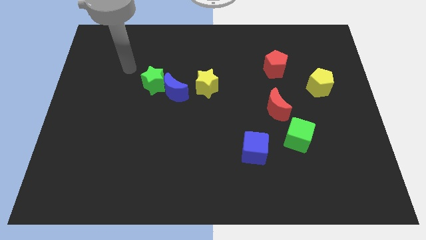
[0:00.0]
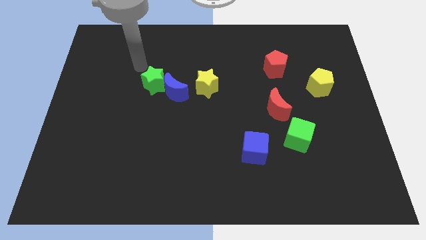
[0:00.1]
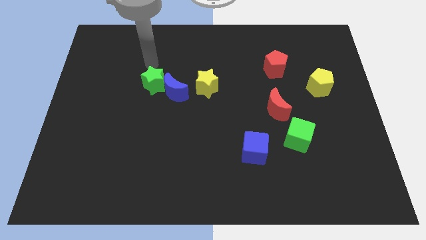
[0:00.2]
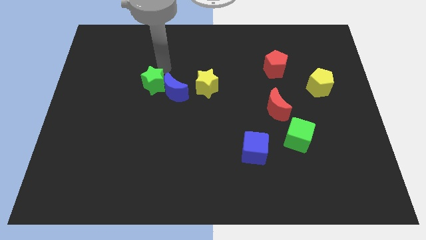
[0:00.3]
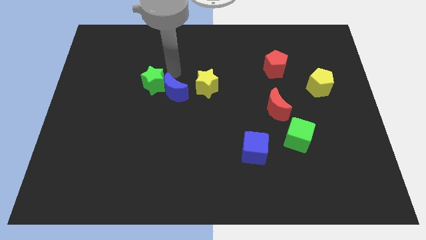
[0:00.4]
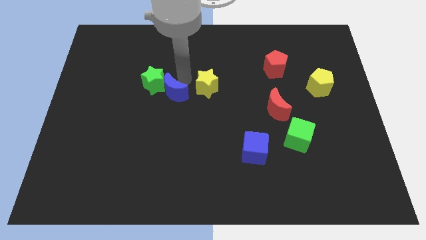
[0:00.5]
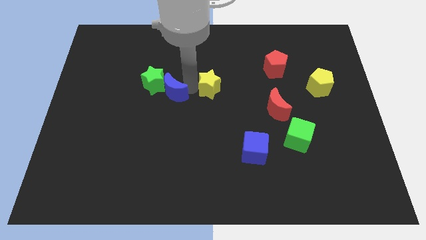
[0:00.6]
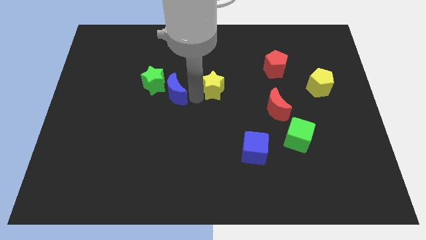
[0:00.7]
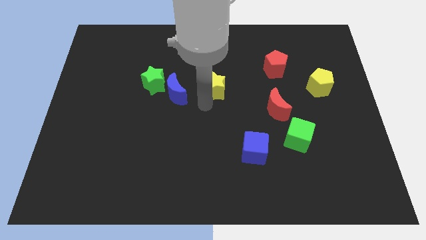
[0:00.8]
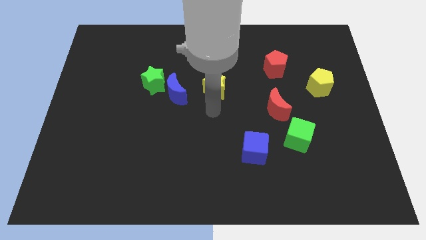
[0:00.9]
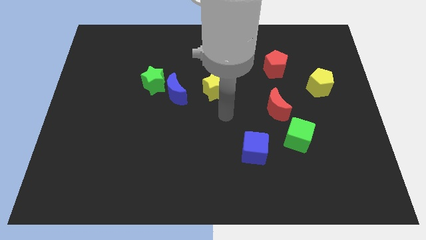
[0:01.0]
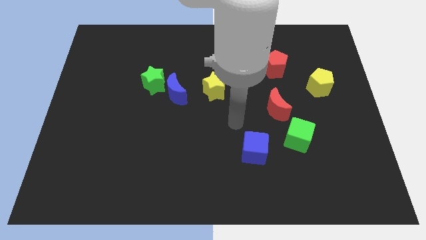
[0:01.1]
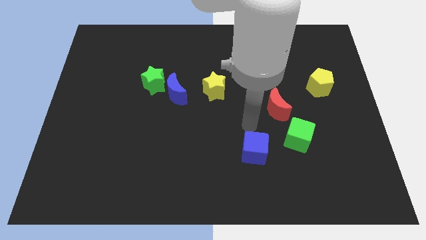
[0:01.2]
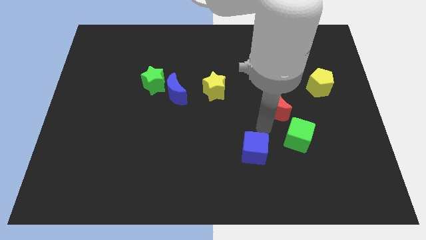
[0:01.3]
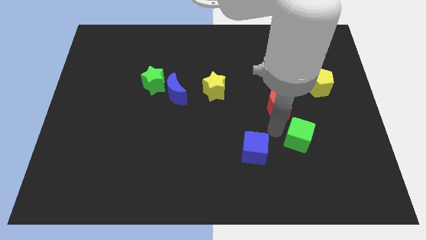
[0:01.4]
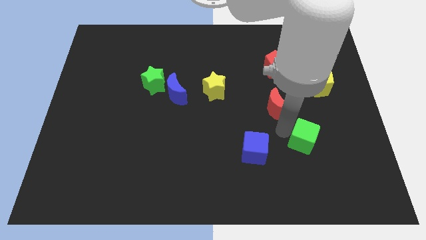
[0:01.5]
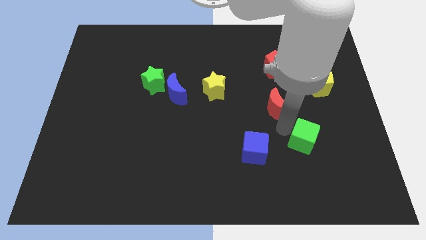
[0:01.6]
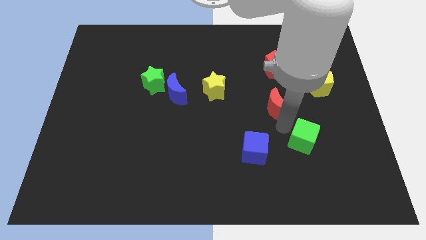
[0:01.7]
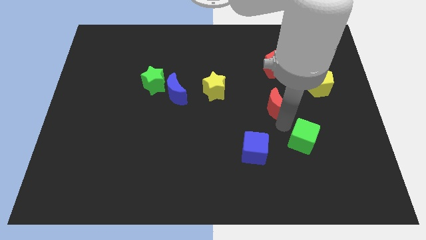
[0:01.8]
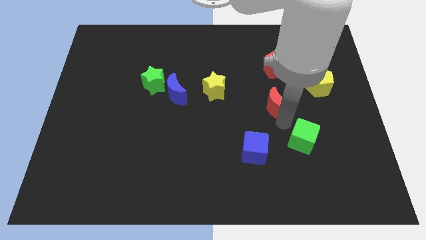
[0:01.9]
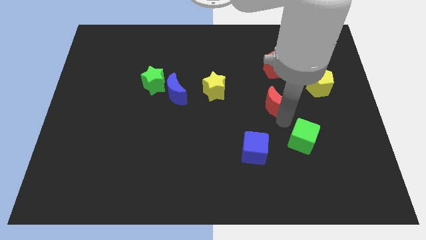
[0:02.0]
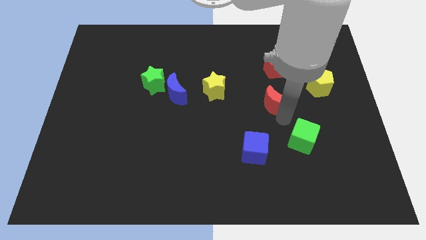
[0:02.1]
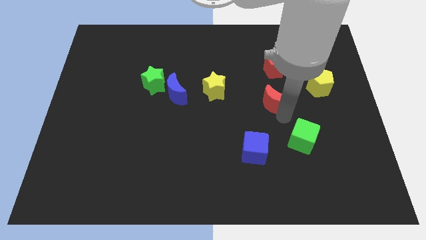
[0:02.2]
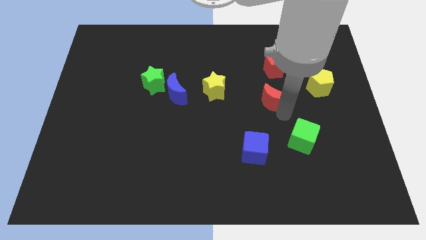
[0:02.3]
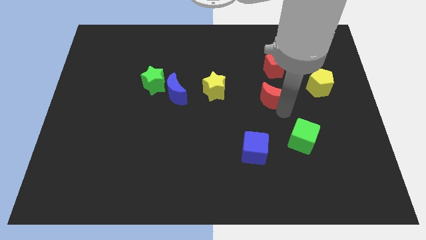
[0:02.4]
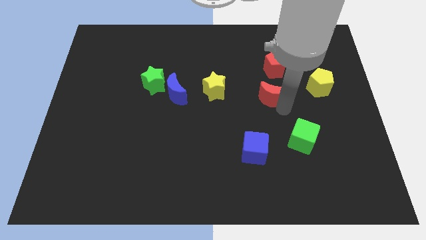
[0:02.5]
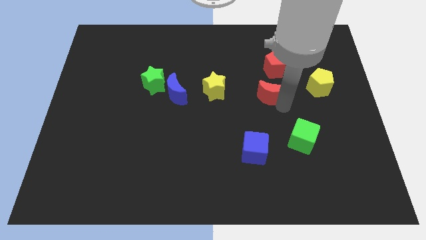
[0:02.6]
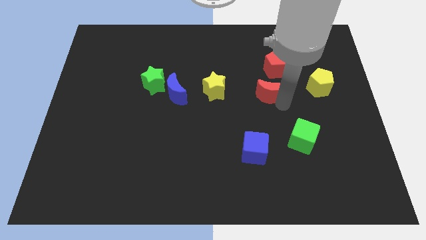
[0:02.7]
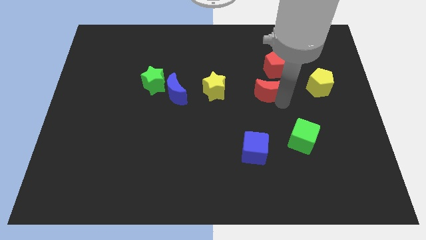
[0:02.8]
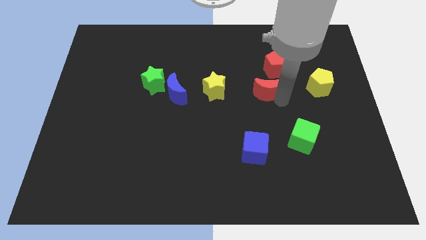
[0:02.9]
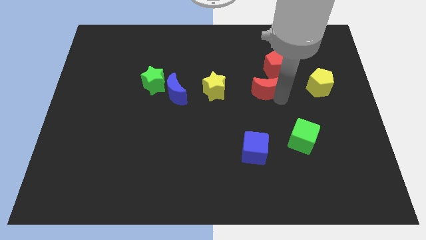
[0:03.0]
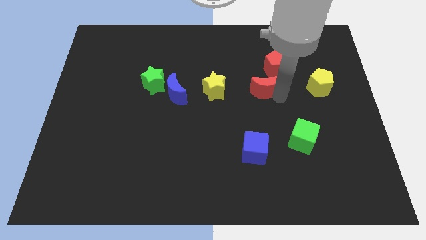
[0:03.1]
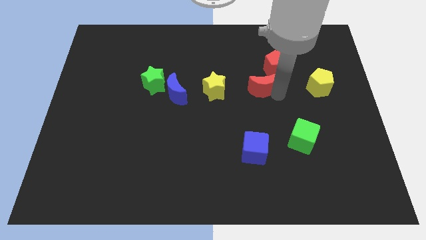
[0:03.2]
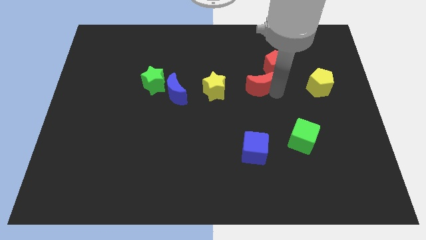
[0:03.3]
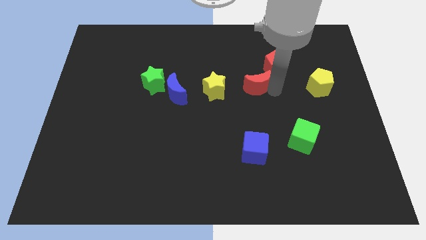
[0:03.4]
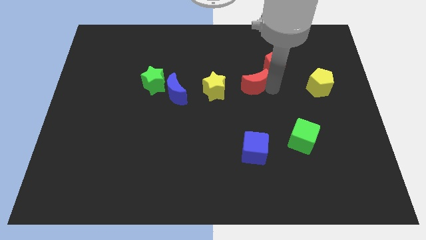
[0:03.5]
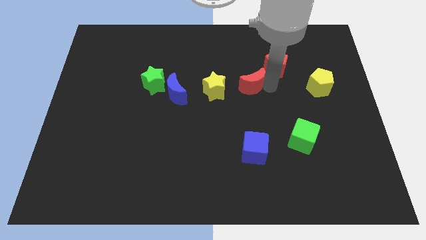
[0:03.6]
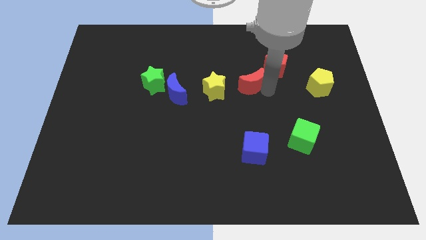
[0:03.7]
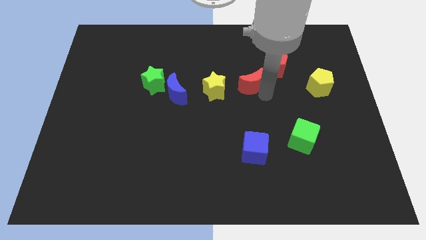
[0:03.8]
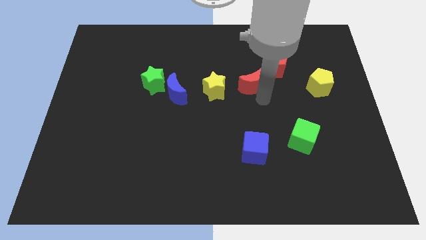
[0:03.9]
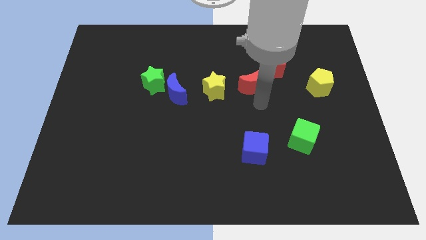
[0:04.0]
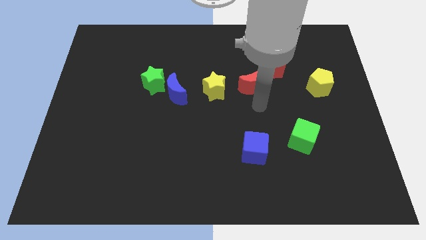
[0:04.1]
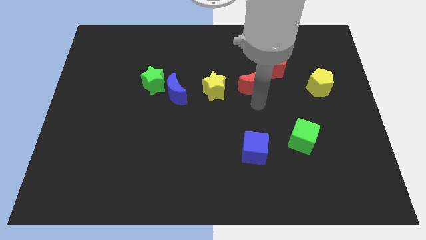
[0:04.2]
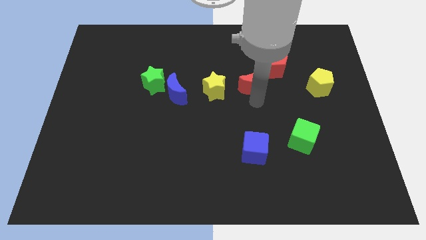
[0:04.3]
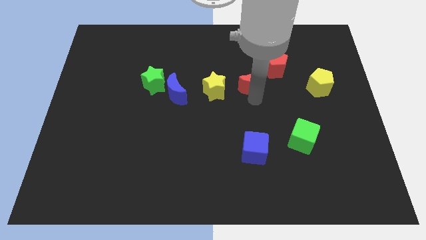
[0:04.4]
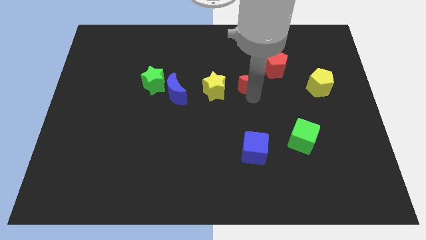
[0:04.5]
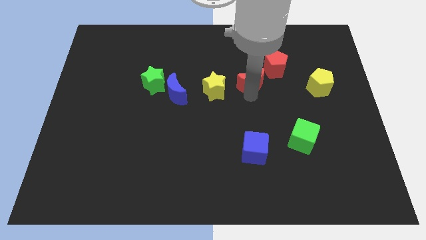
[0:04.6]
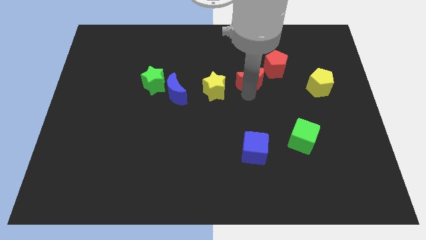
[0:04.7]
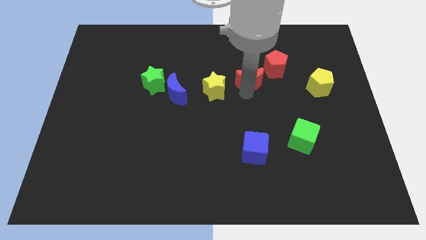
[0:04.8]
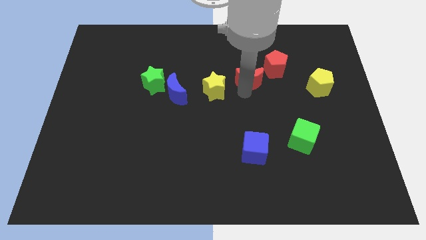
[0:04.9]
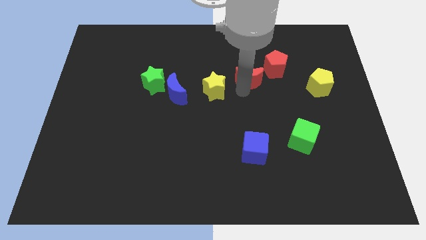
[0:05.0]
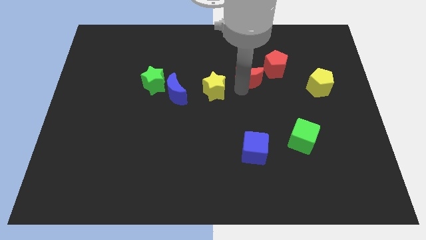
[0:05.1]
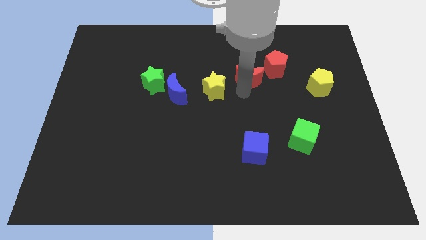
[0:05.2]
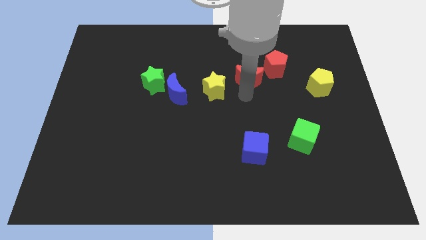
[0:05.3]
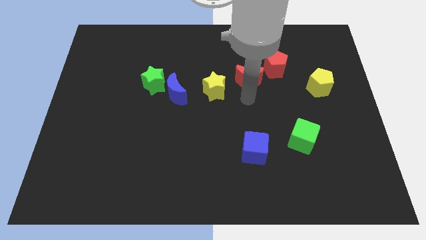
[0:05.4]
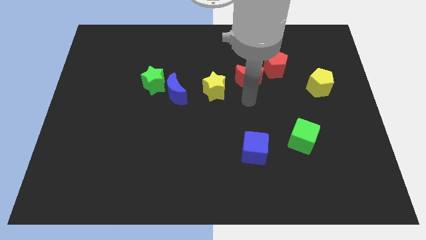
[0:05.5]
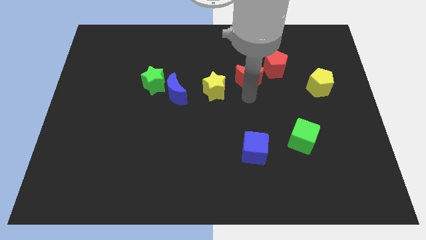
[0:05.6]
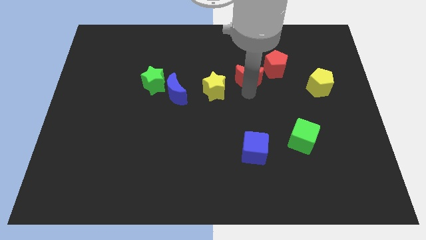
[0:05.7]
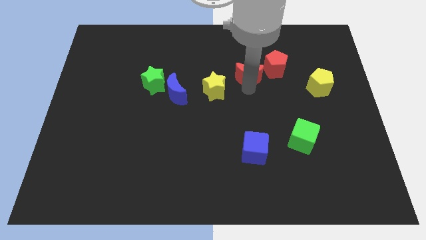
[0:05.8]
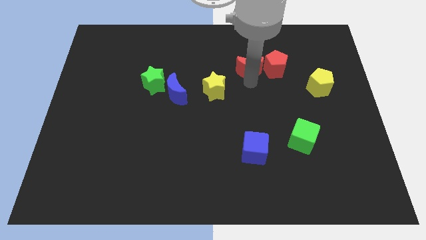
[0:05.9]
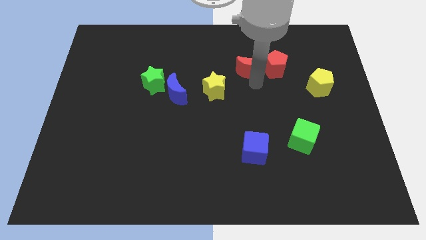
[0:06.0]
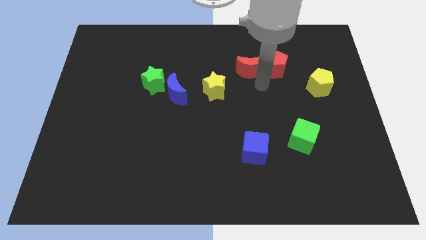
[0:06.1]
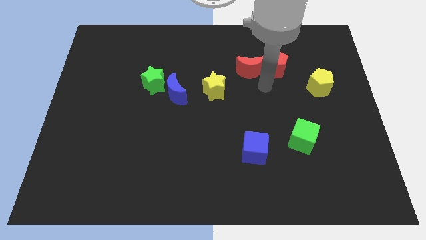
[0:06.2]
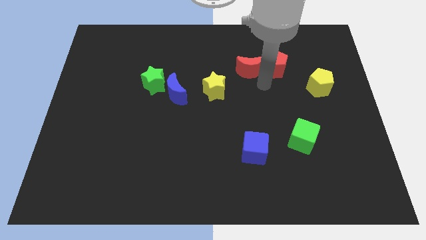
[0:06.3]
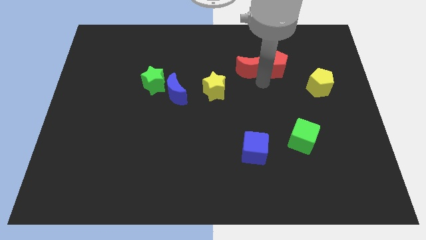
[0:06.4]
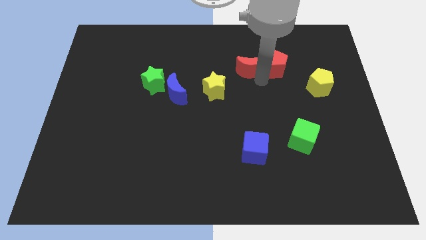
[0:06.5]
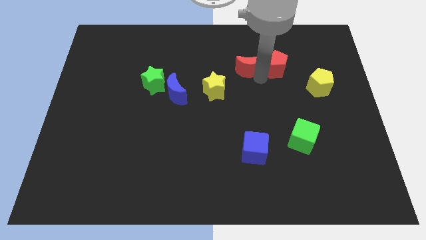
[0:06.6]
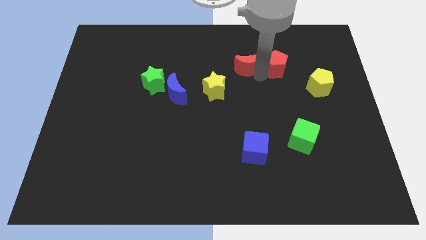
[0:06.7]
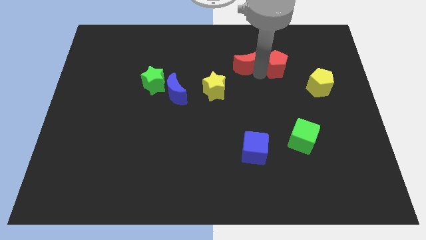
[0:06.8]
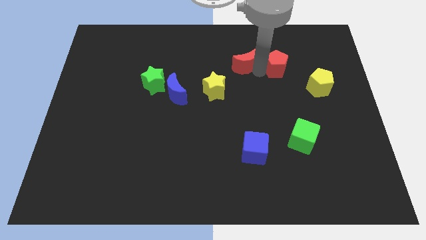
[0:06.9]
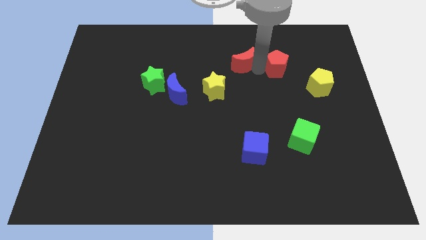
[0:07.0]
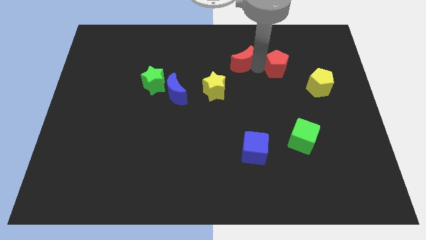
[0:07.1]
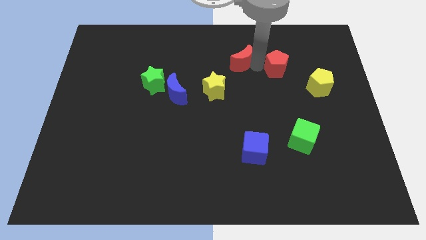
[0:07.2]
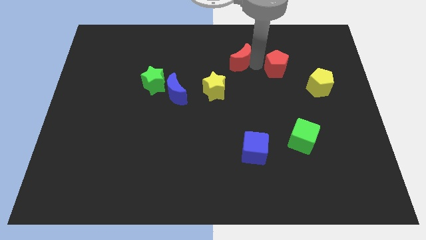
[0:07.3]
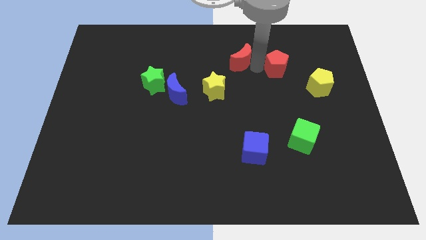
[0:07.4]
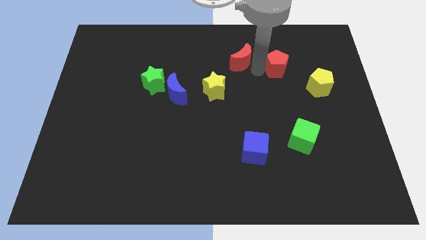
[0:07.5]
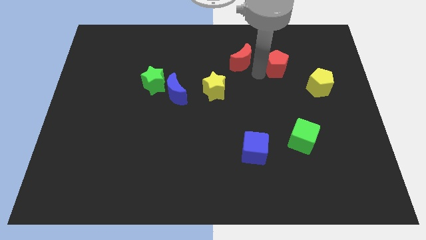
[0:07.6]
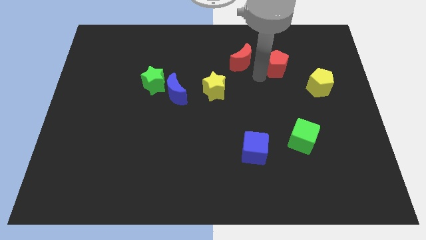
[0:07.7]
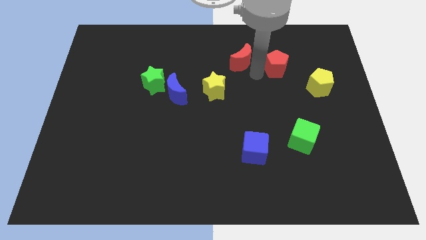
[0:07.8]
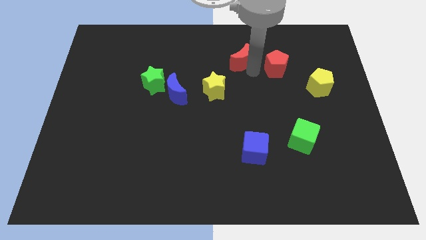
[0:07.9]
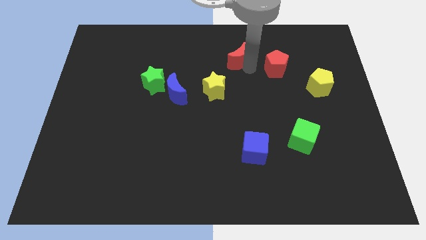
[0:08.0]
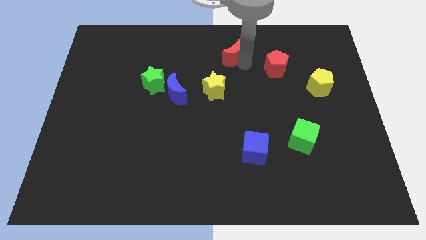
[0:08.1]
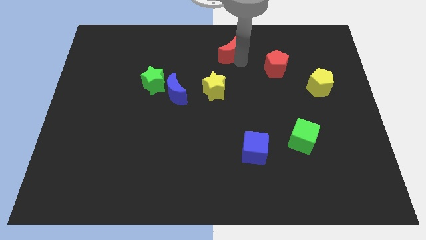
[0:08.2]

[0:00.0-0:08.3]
put the red moon to the top
